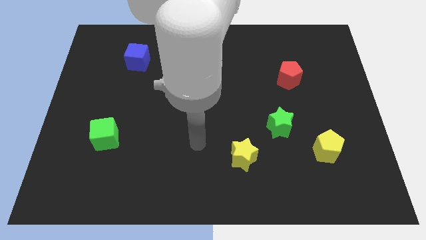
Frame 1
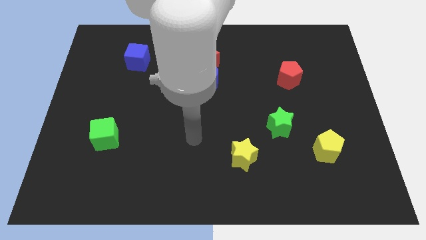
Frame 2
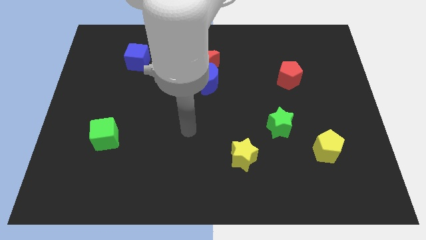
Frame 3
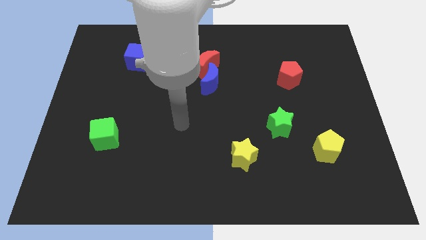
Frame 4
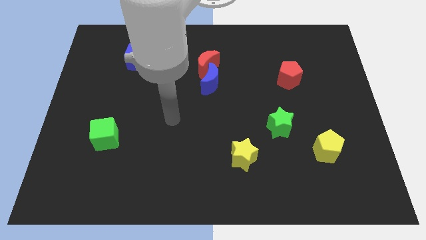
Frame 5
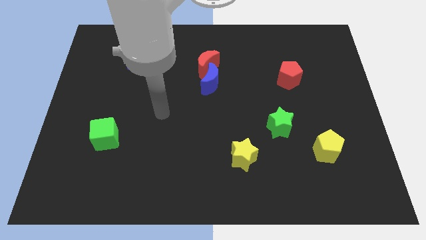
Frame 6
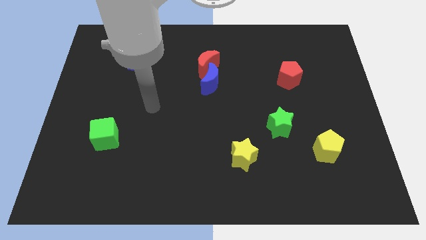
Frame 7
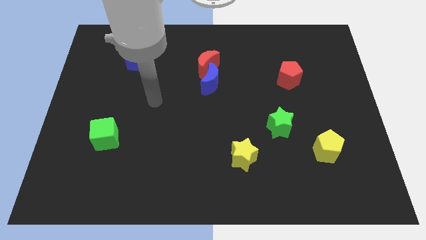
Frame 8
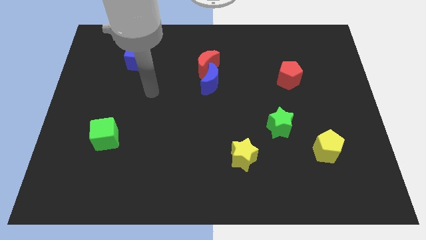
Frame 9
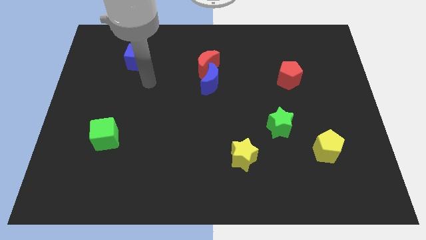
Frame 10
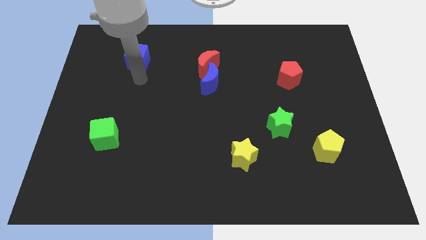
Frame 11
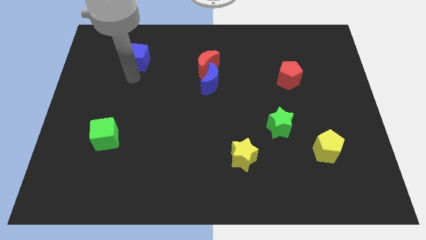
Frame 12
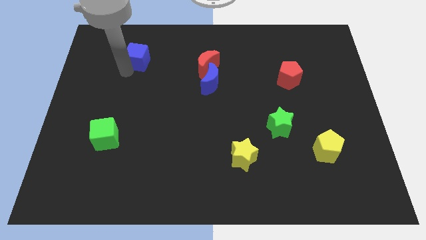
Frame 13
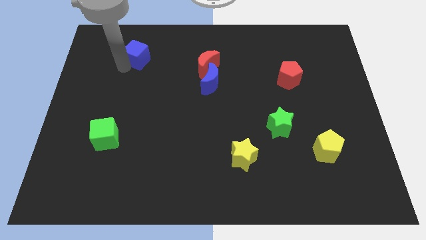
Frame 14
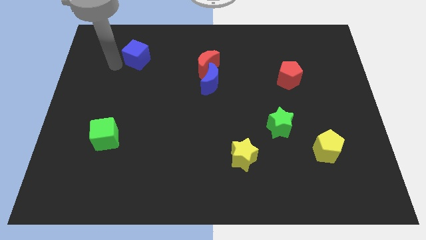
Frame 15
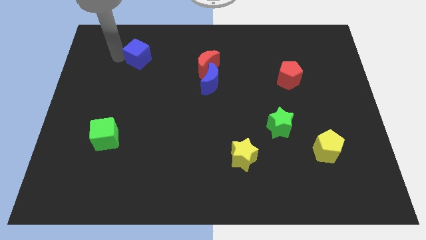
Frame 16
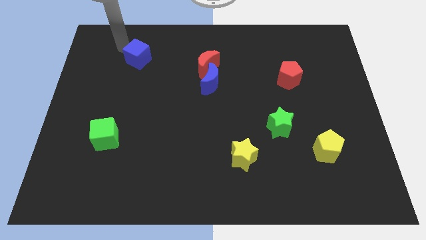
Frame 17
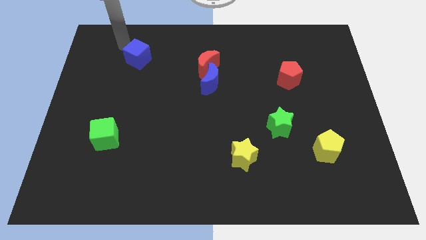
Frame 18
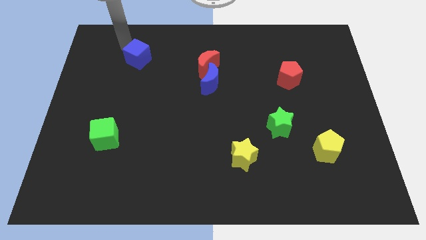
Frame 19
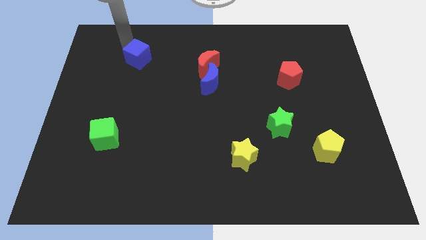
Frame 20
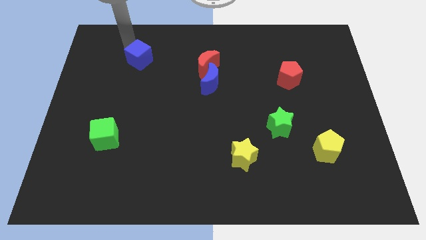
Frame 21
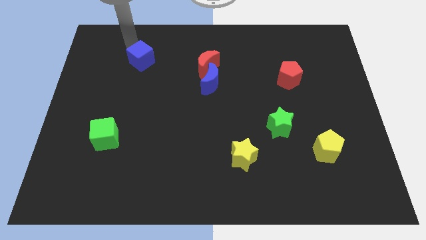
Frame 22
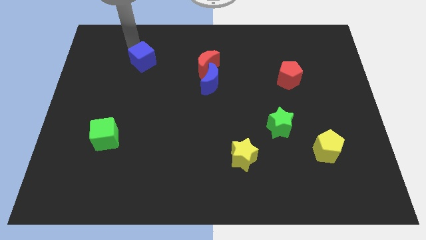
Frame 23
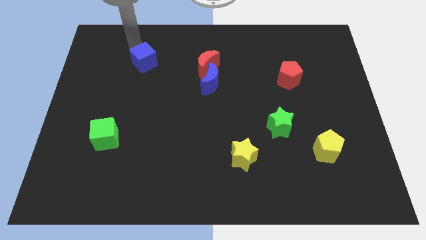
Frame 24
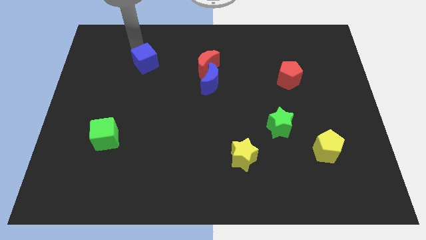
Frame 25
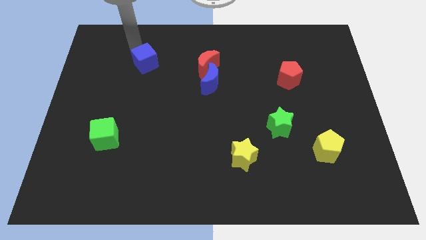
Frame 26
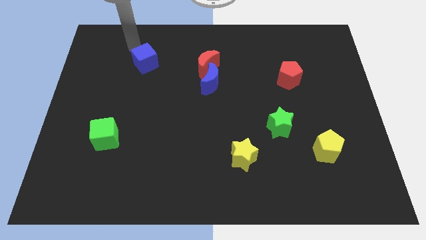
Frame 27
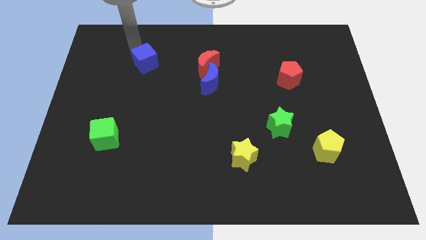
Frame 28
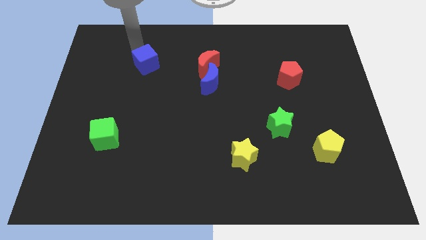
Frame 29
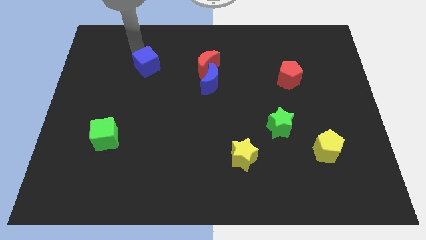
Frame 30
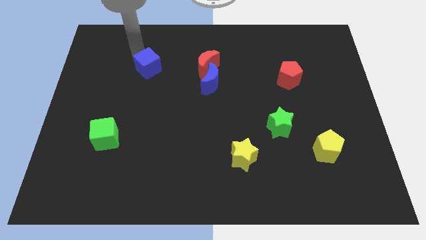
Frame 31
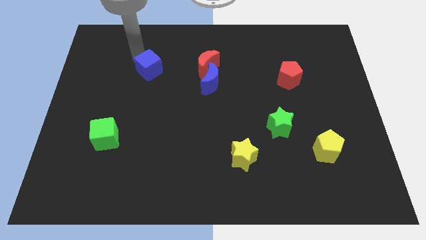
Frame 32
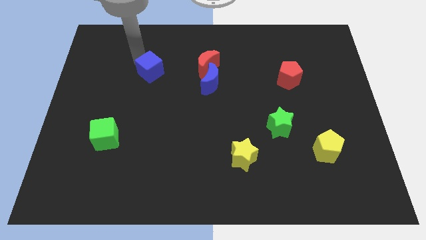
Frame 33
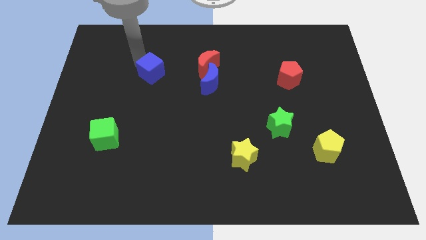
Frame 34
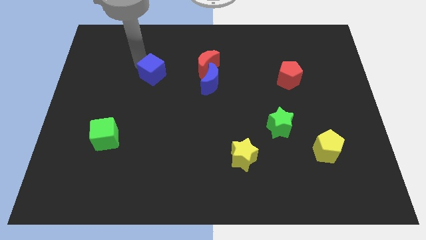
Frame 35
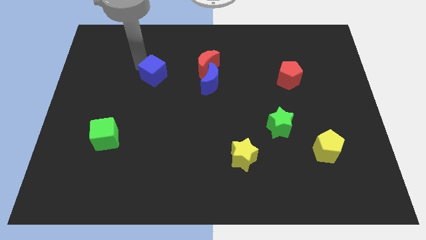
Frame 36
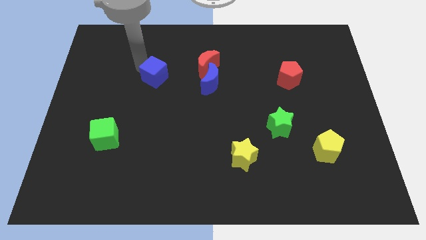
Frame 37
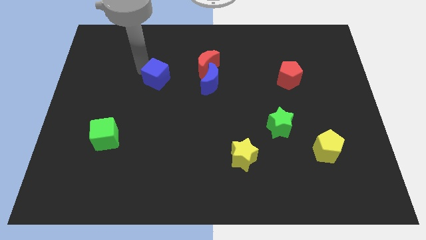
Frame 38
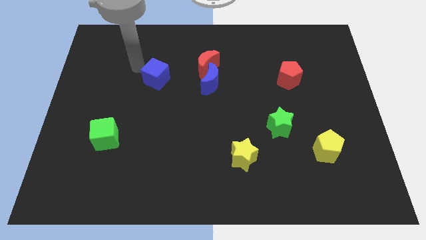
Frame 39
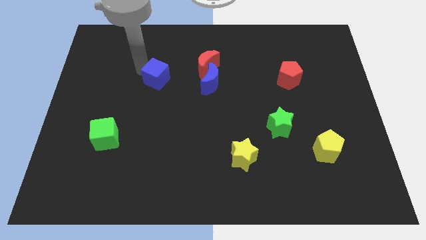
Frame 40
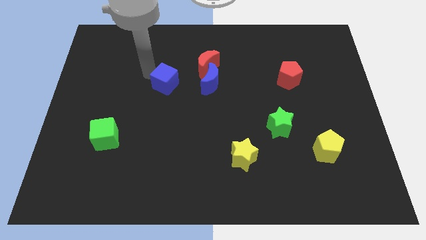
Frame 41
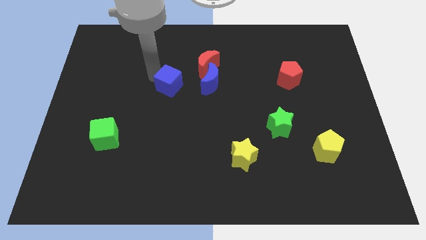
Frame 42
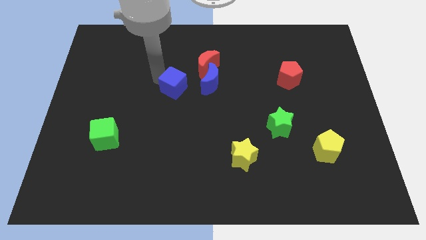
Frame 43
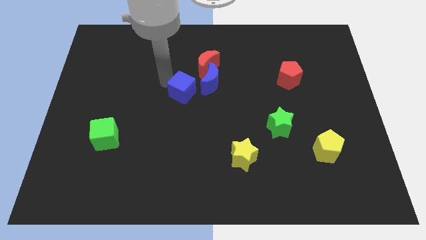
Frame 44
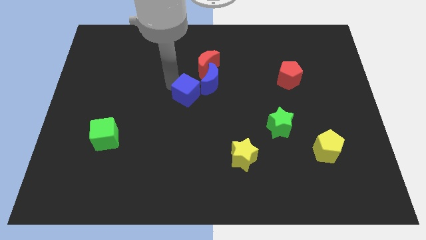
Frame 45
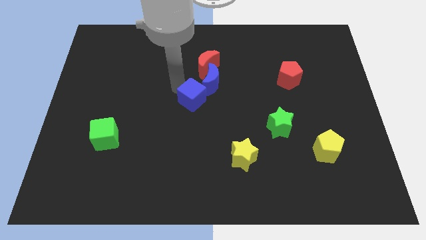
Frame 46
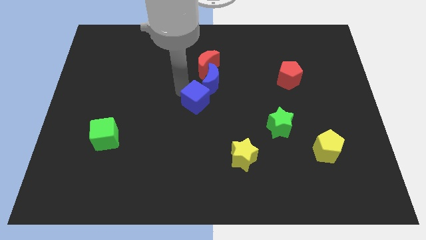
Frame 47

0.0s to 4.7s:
slide the blue cube downwards and then to the right

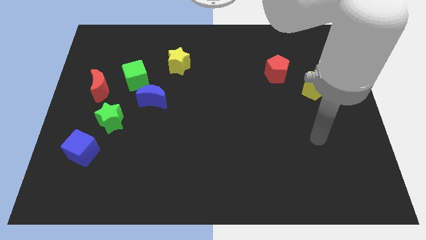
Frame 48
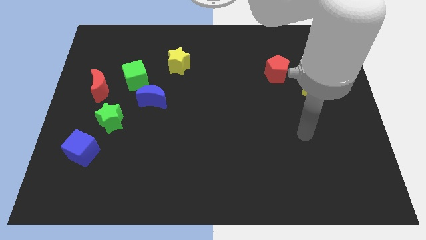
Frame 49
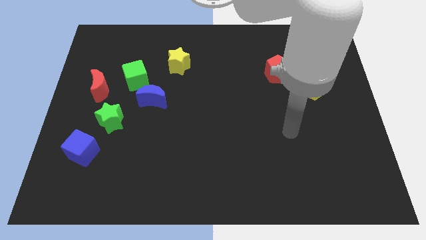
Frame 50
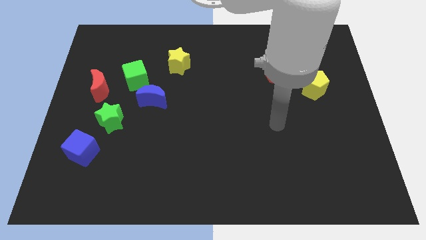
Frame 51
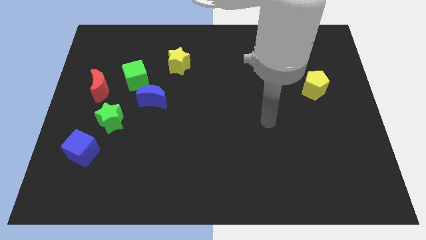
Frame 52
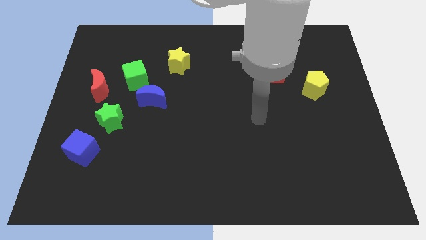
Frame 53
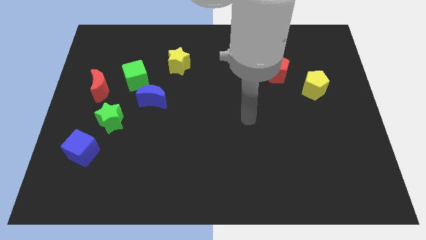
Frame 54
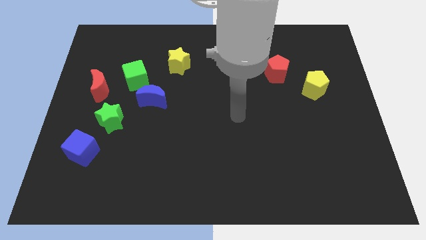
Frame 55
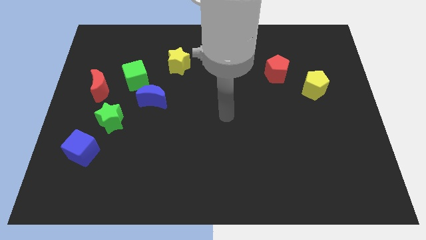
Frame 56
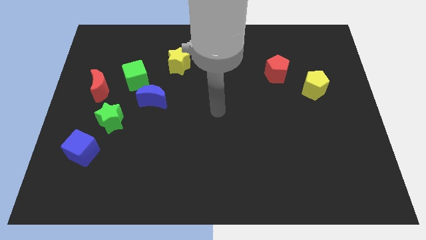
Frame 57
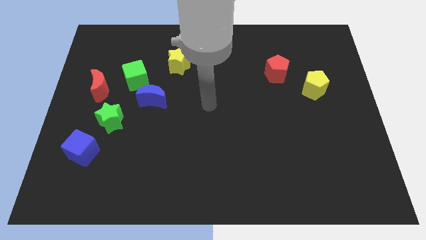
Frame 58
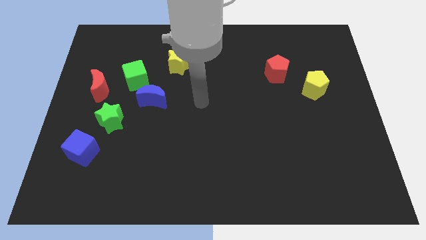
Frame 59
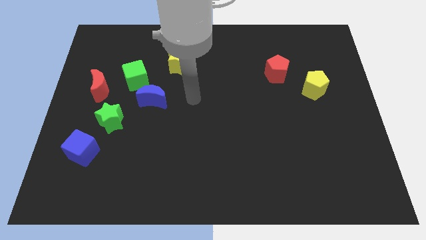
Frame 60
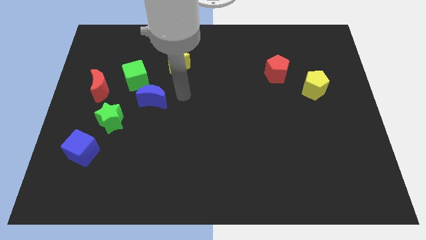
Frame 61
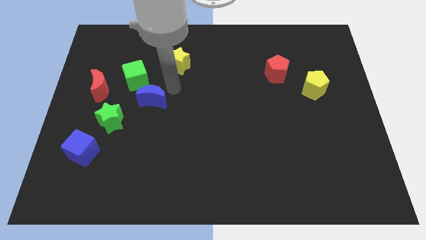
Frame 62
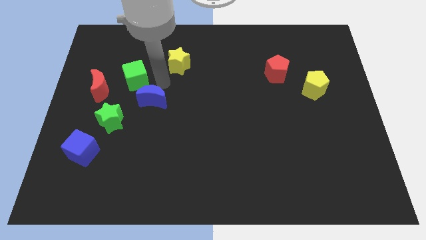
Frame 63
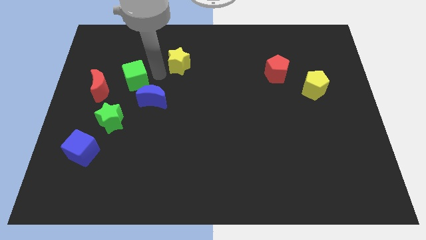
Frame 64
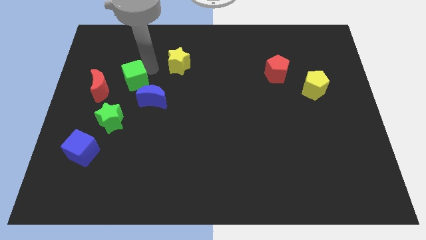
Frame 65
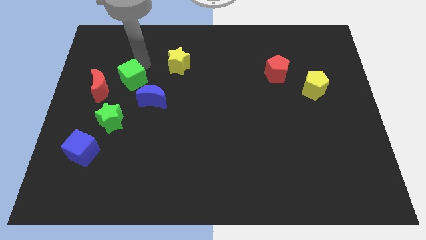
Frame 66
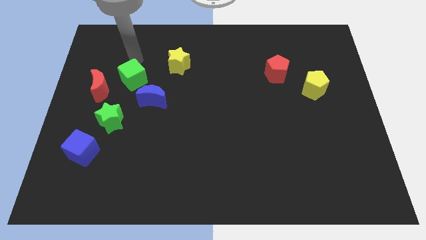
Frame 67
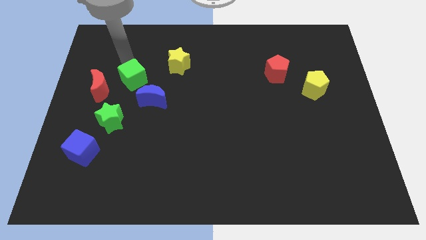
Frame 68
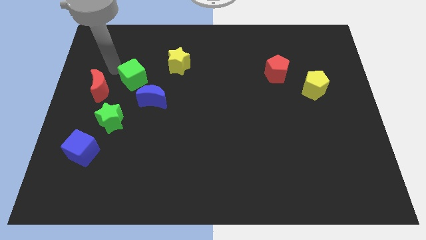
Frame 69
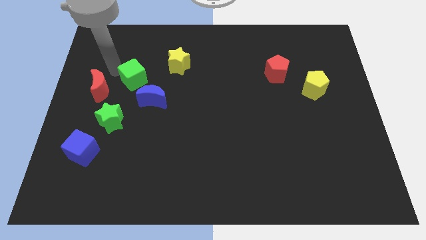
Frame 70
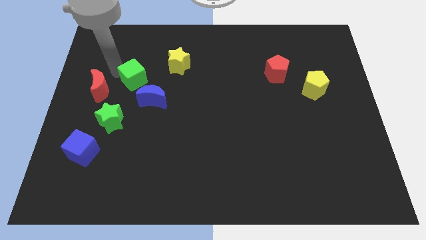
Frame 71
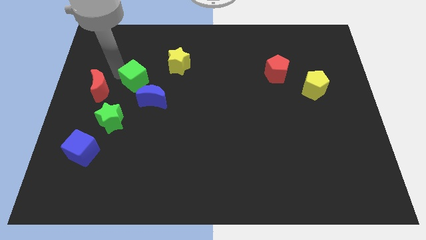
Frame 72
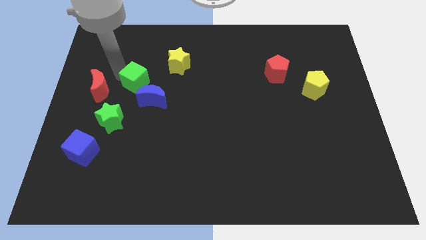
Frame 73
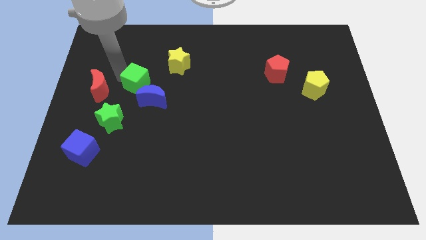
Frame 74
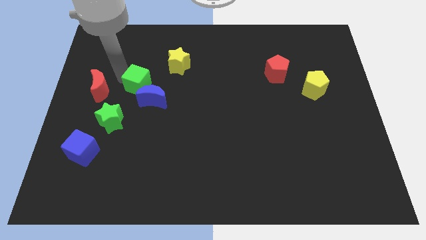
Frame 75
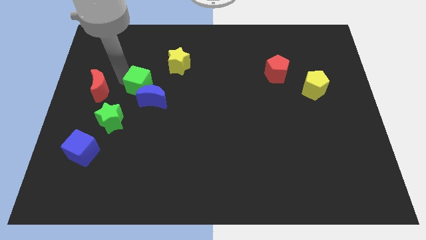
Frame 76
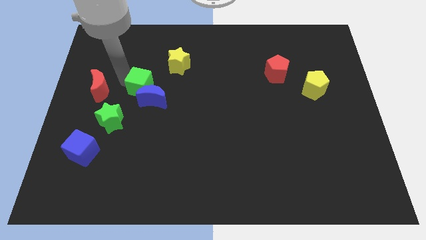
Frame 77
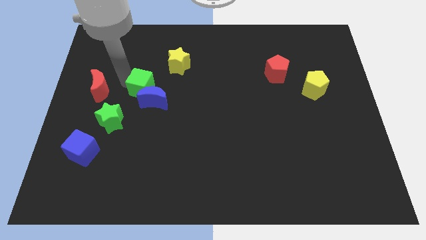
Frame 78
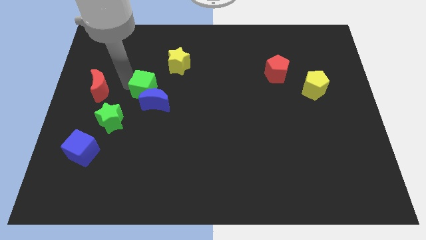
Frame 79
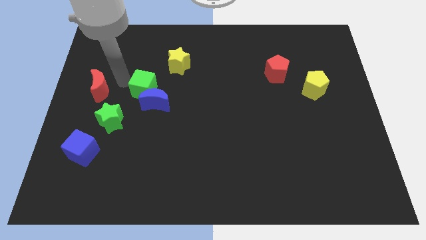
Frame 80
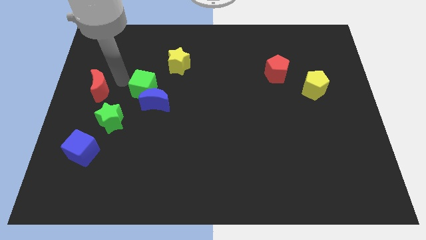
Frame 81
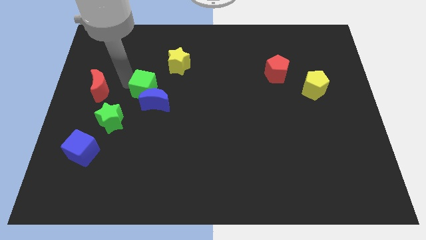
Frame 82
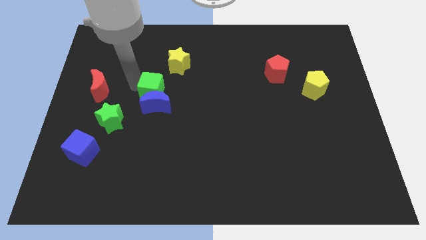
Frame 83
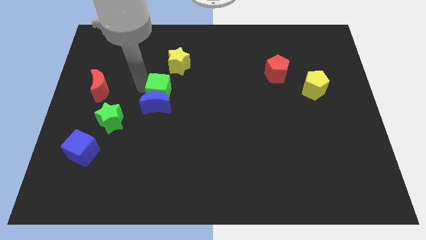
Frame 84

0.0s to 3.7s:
slide the green cube downwards and to the right diagonally a bit
